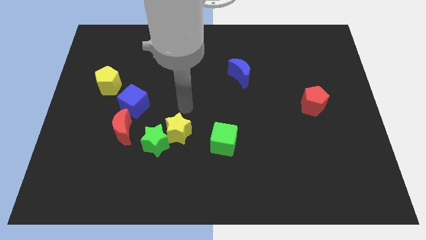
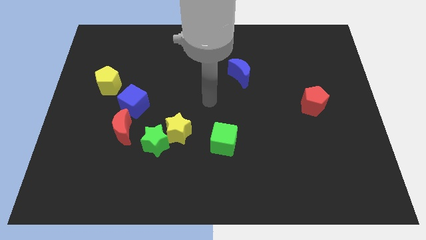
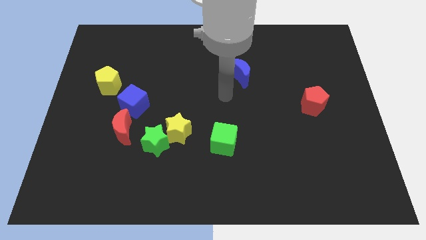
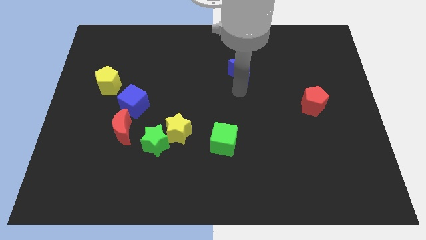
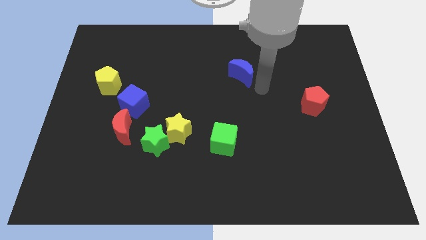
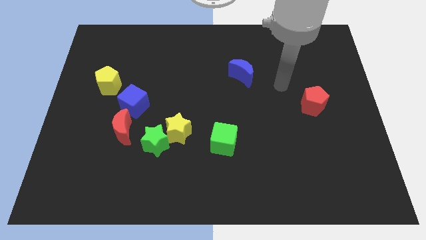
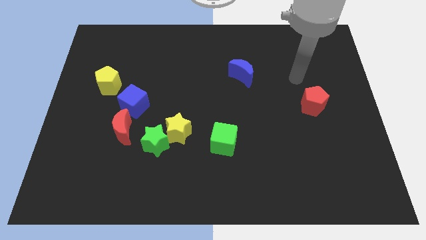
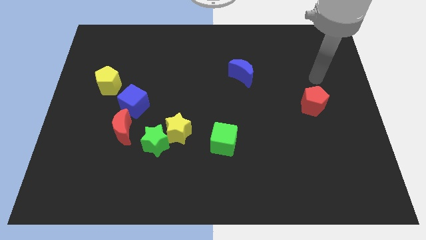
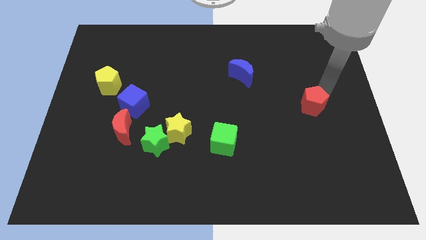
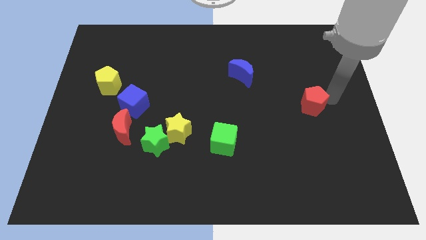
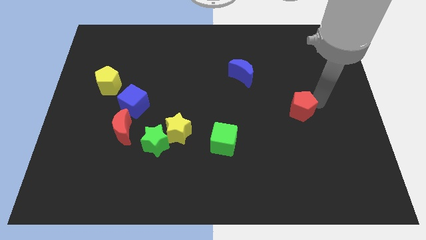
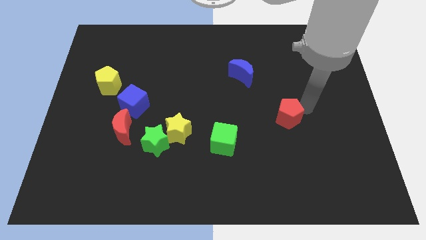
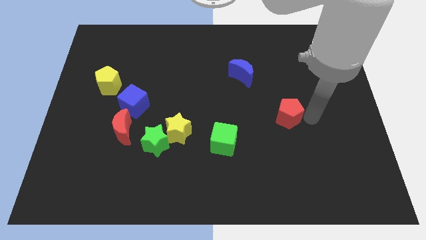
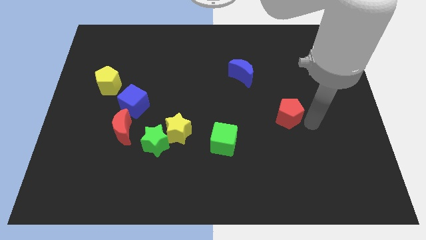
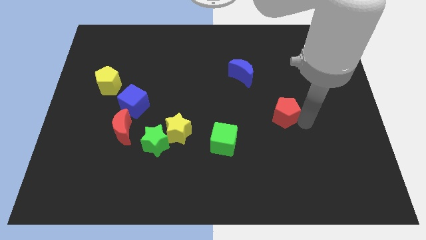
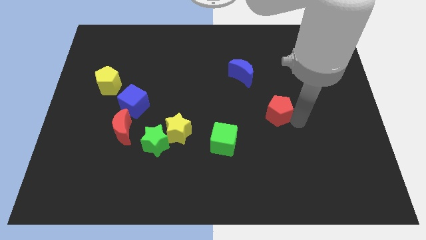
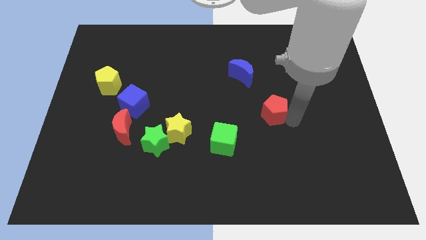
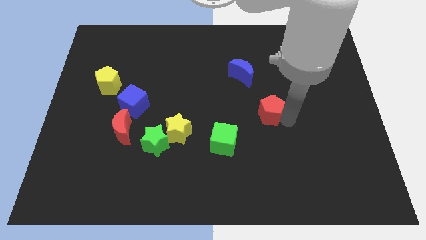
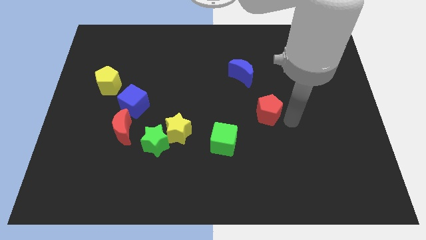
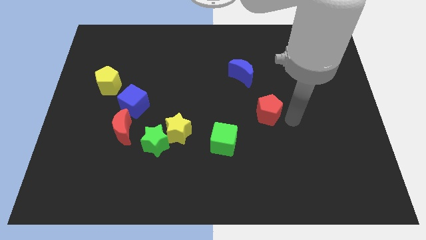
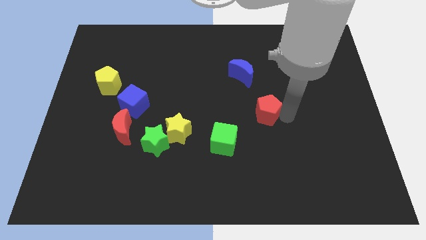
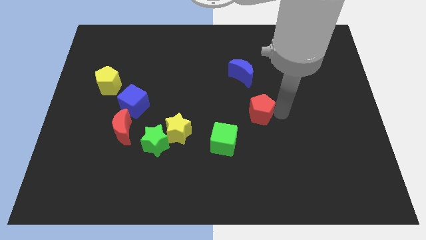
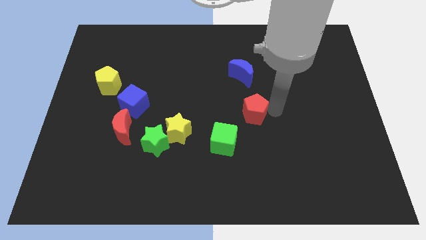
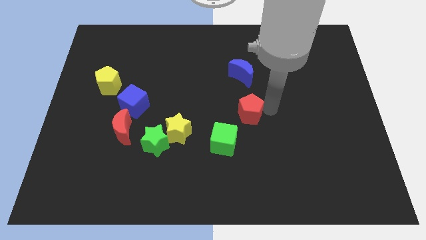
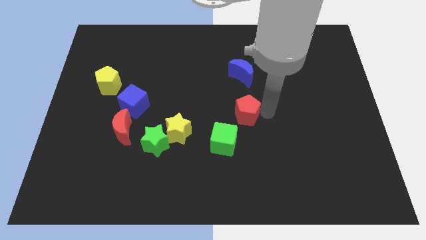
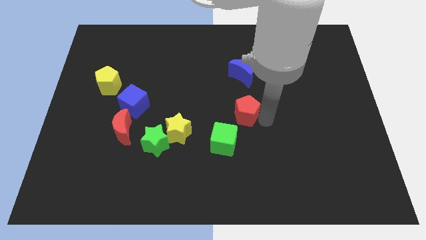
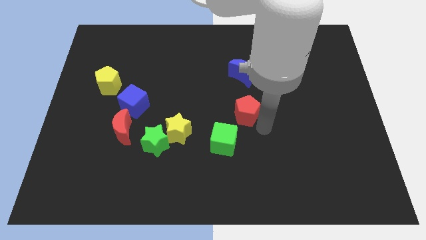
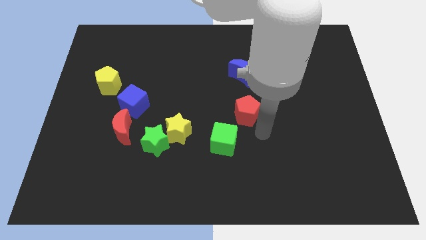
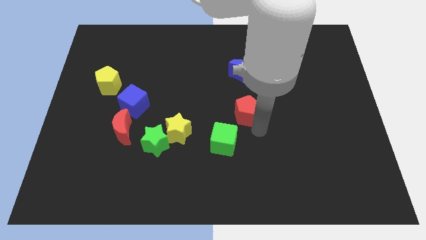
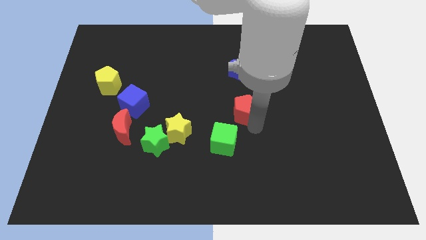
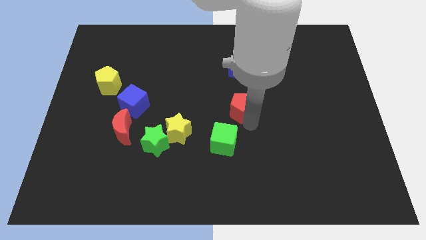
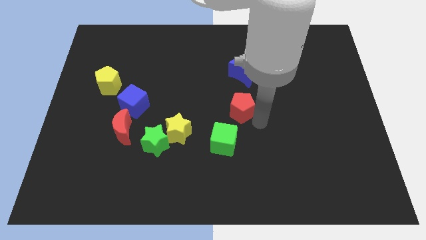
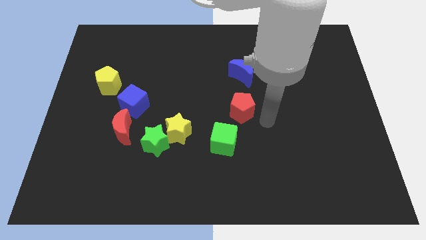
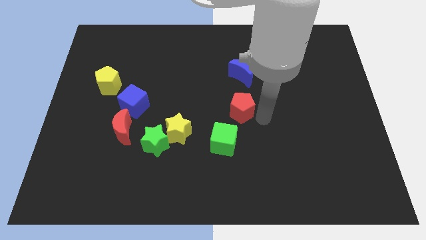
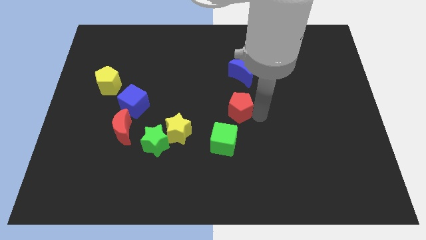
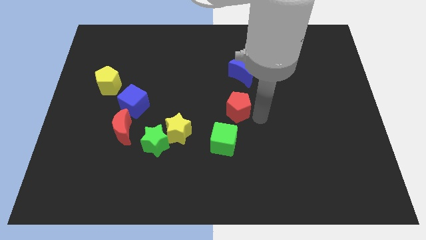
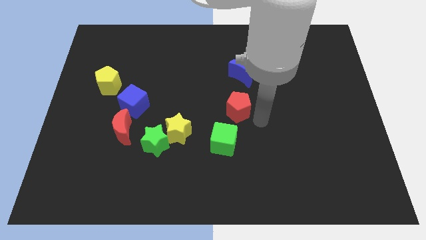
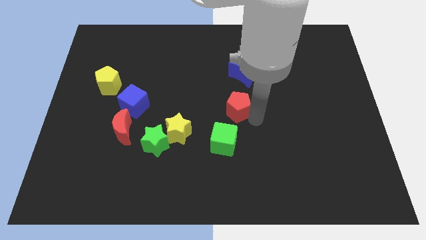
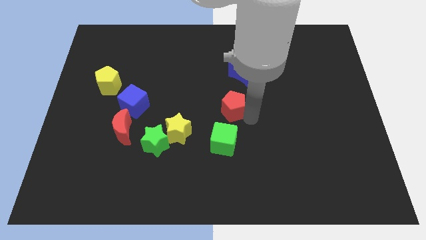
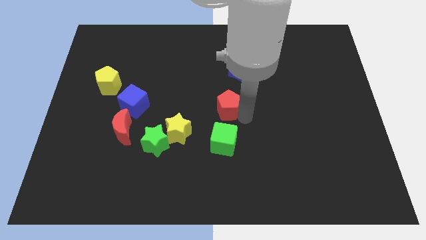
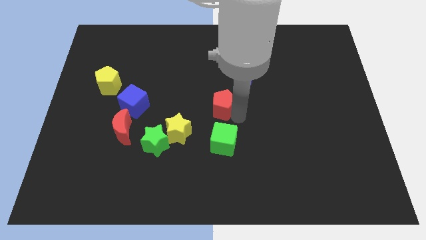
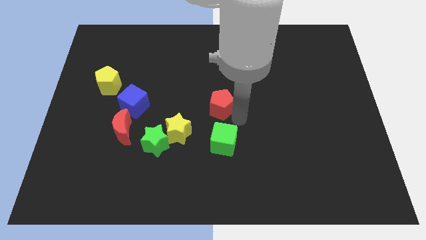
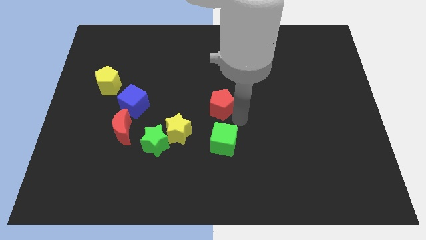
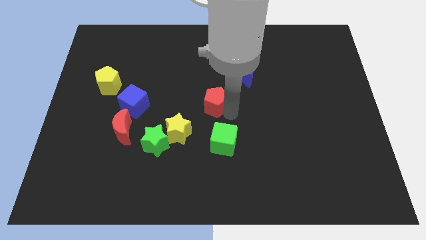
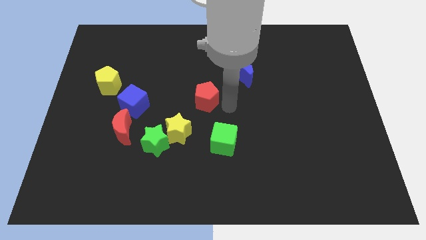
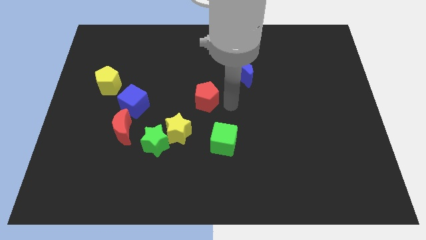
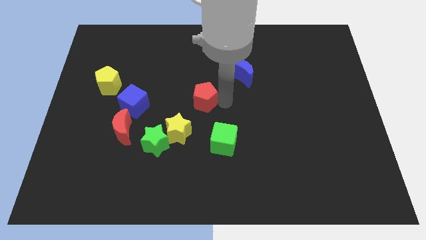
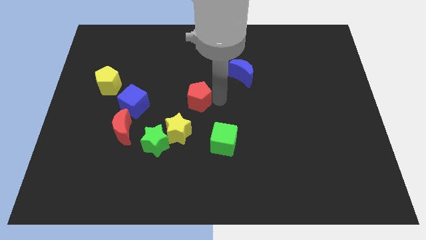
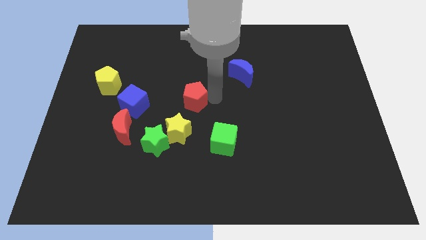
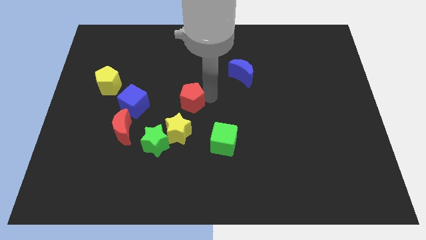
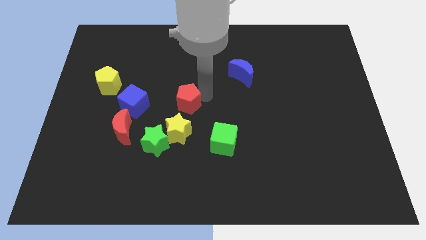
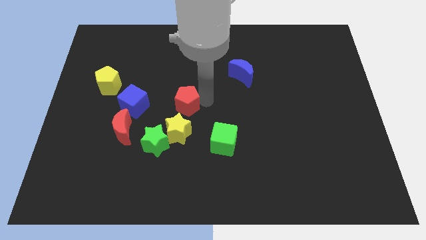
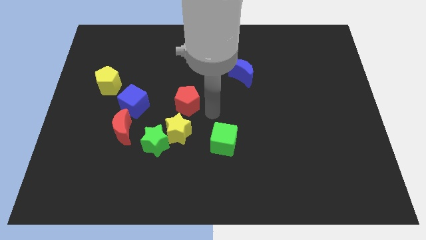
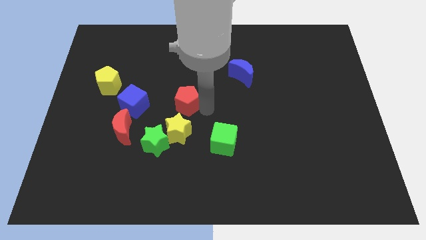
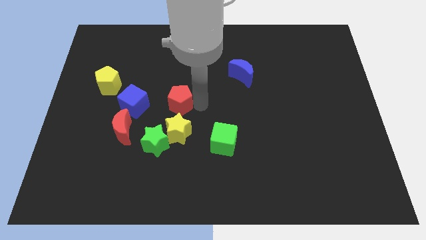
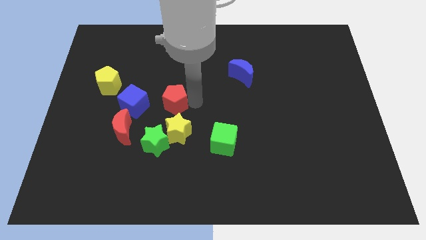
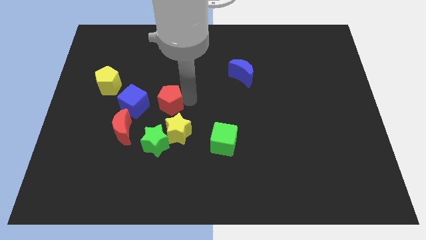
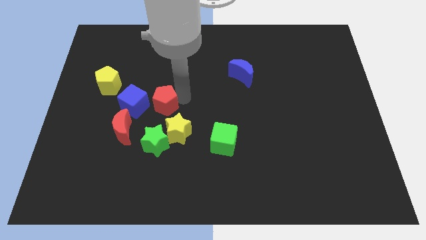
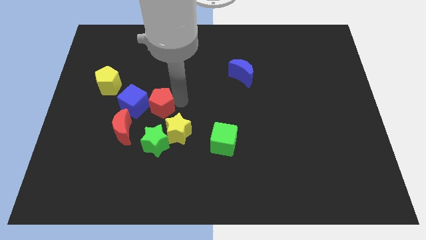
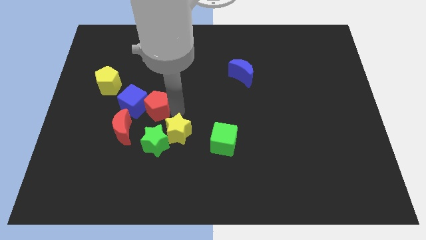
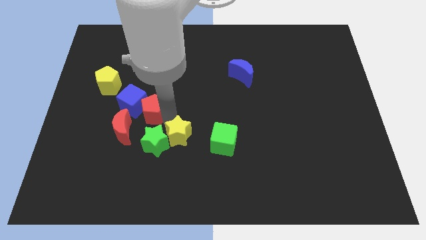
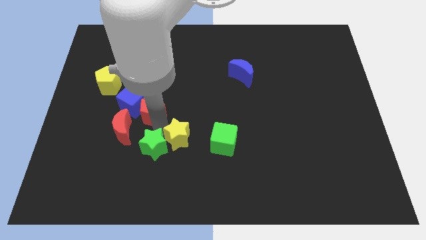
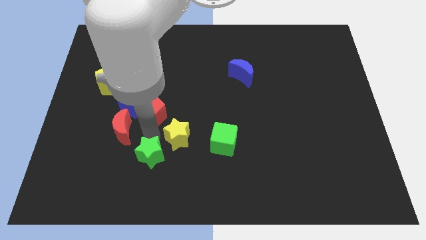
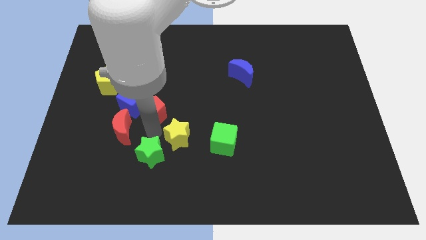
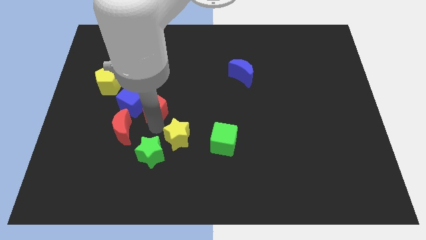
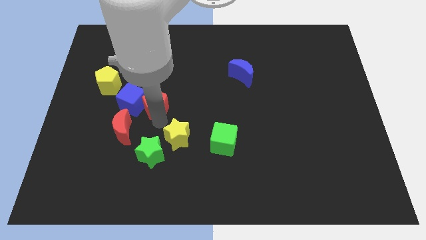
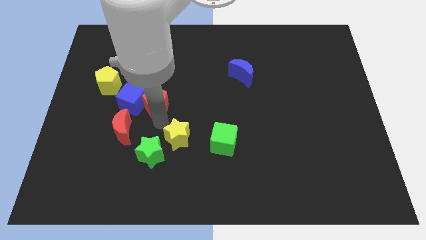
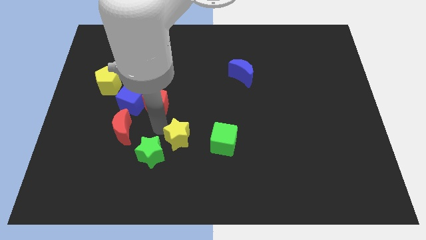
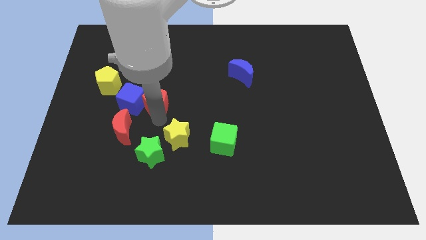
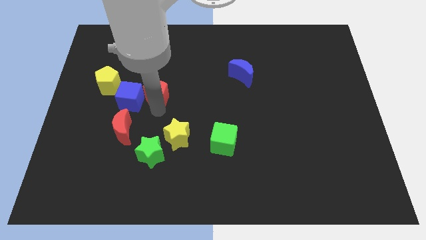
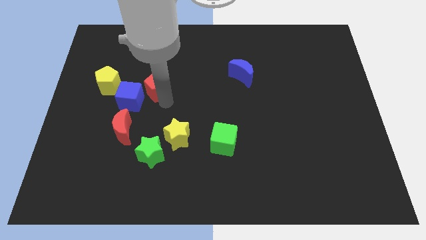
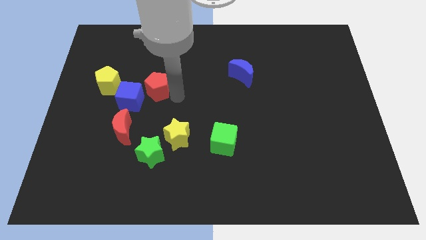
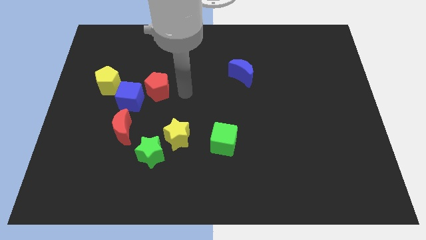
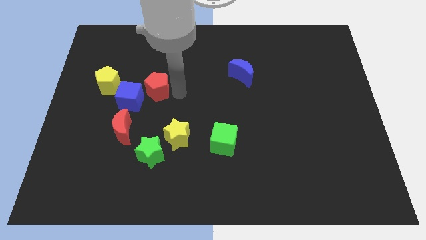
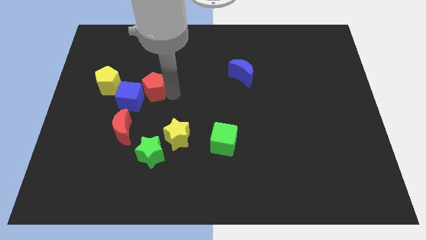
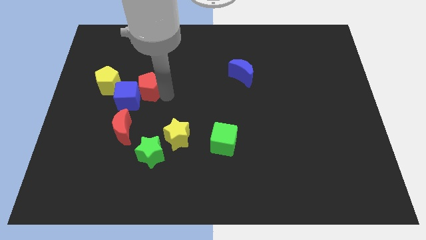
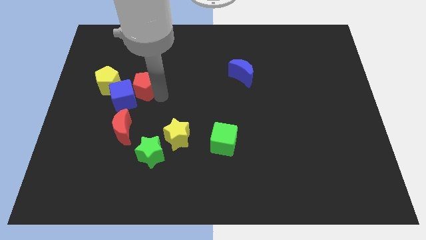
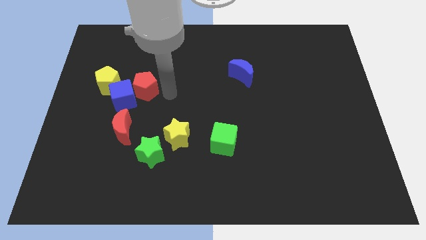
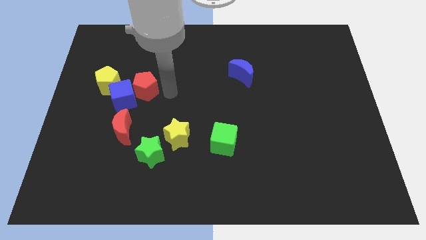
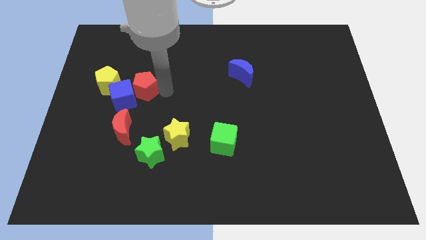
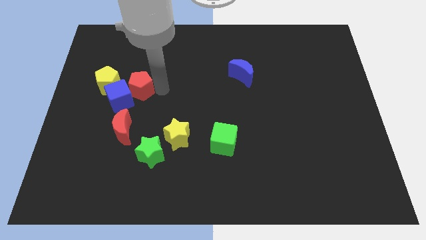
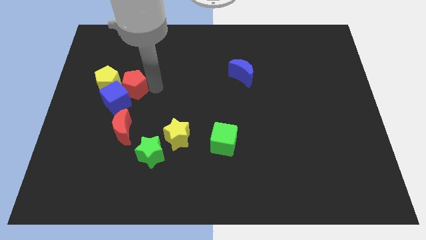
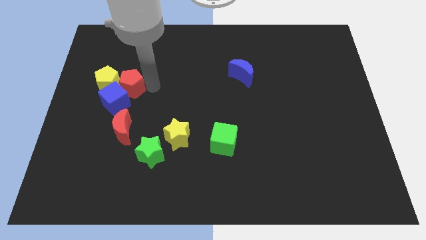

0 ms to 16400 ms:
move the red pentagon to the yellow pentagon
